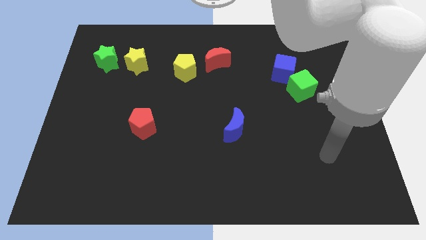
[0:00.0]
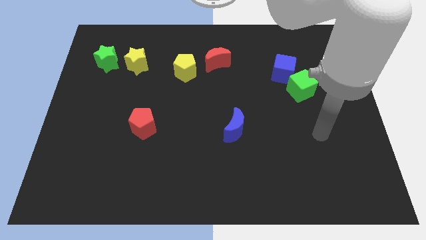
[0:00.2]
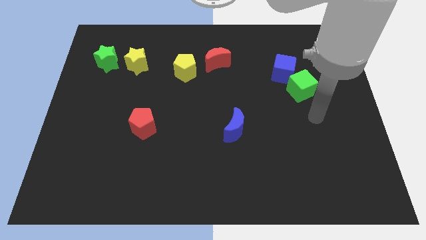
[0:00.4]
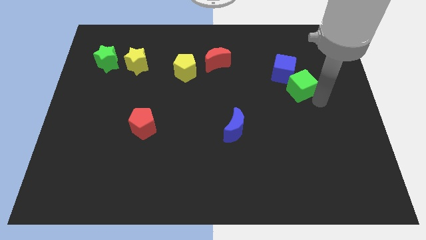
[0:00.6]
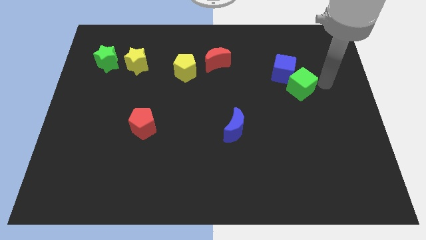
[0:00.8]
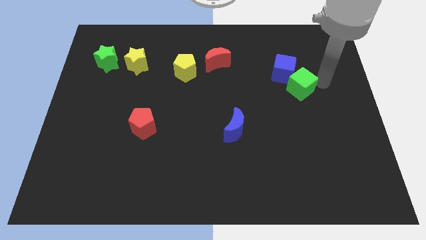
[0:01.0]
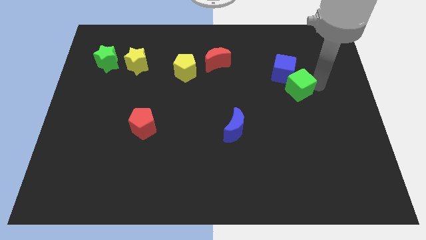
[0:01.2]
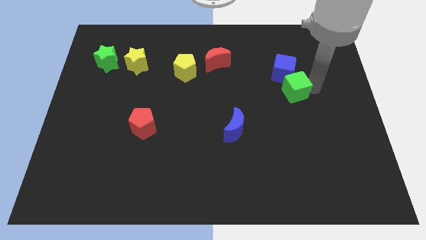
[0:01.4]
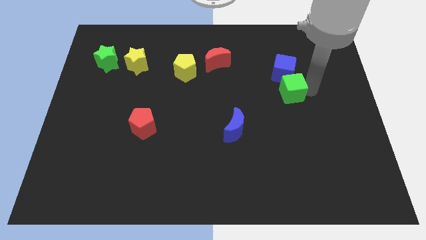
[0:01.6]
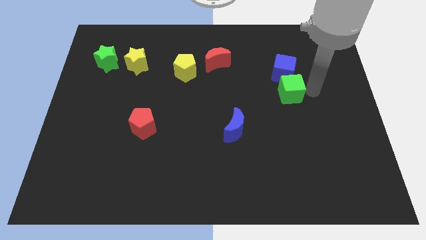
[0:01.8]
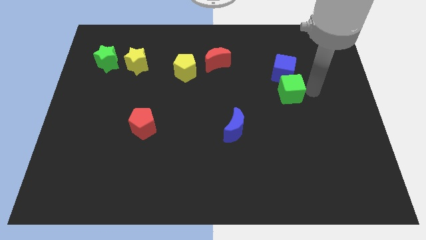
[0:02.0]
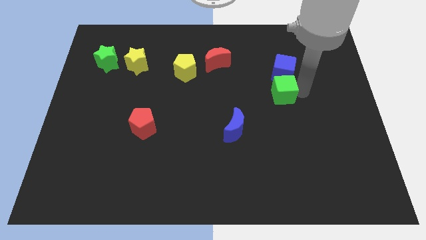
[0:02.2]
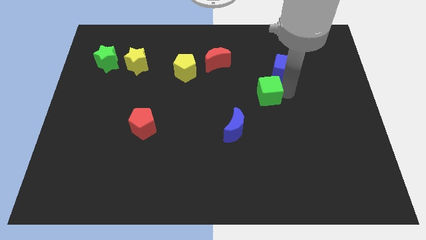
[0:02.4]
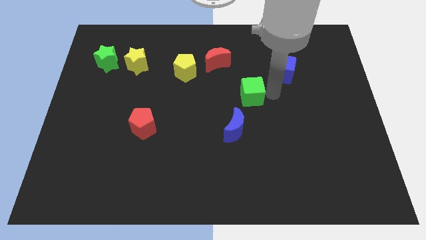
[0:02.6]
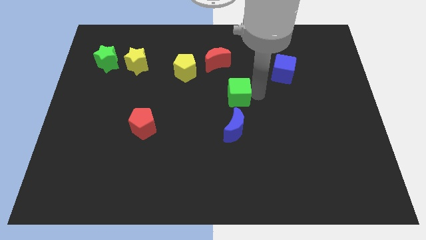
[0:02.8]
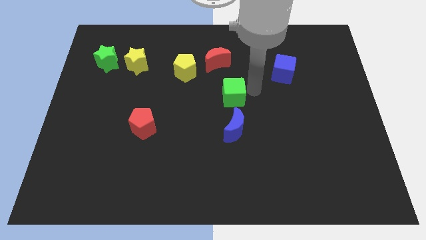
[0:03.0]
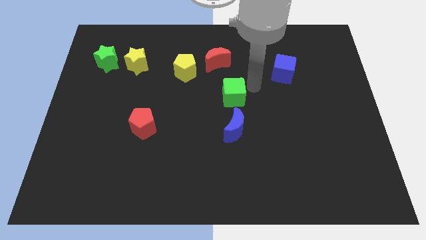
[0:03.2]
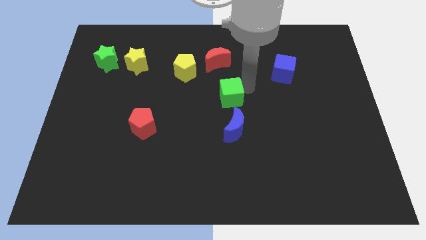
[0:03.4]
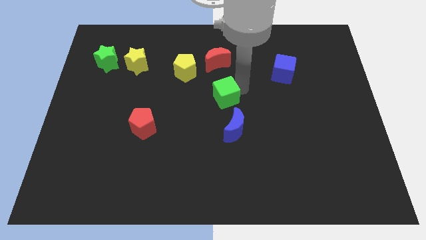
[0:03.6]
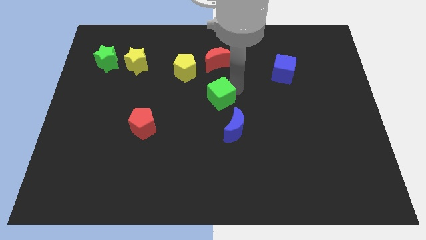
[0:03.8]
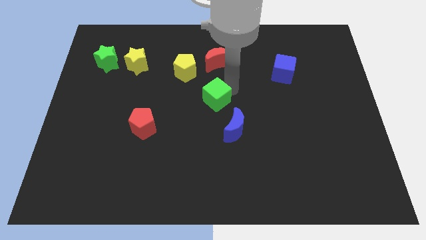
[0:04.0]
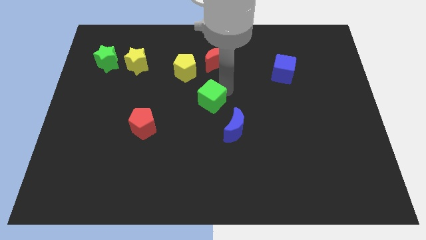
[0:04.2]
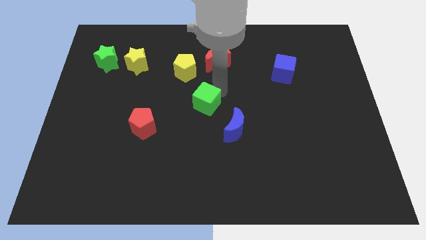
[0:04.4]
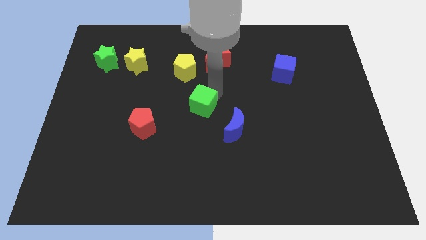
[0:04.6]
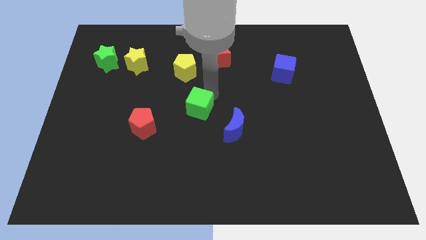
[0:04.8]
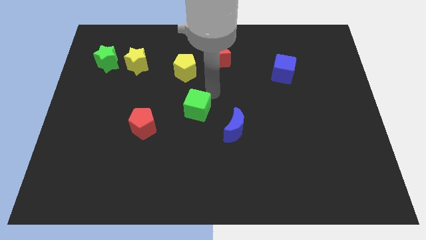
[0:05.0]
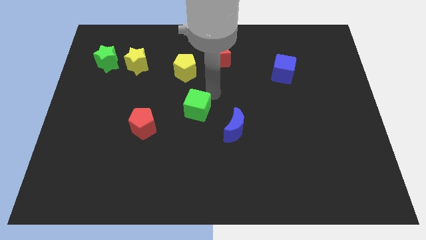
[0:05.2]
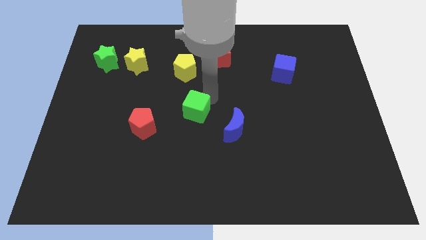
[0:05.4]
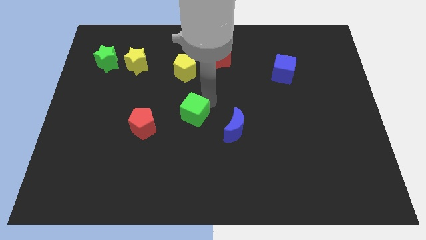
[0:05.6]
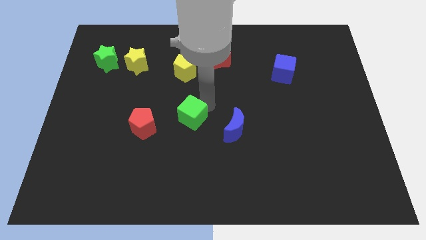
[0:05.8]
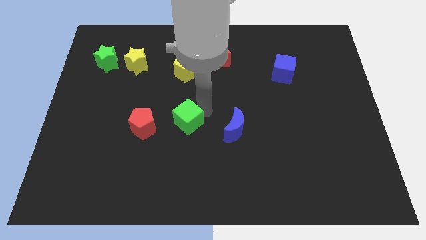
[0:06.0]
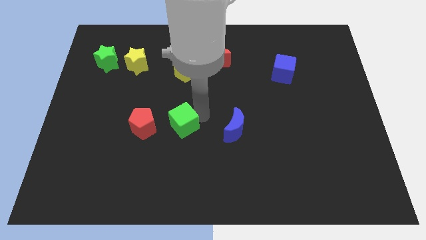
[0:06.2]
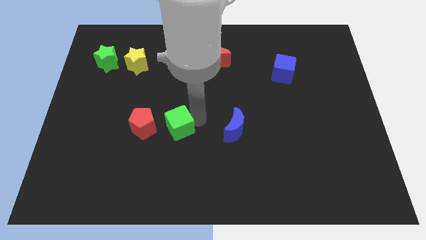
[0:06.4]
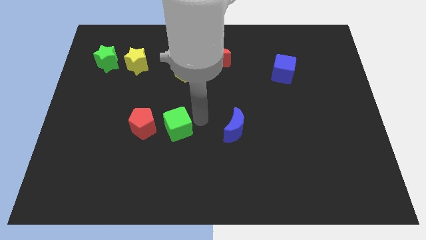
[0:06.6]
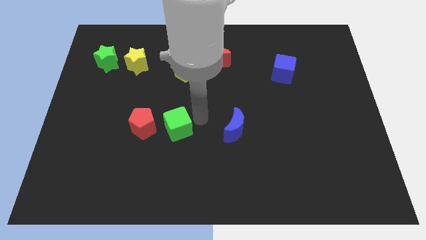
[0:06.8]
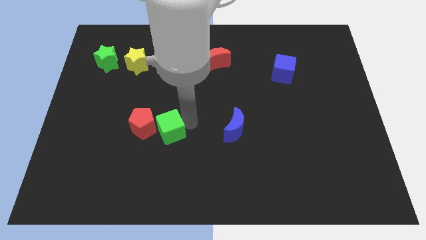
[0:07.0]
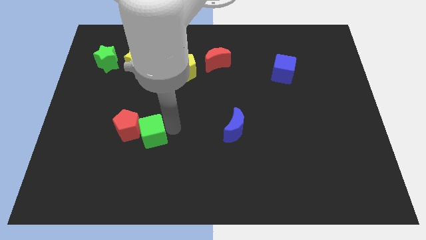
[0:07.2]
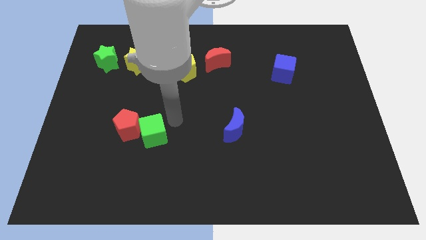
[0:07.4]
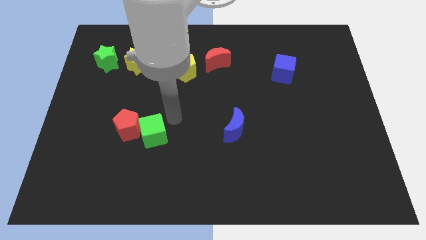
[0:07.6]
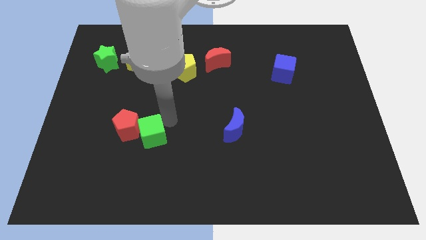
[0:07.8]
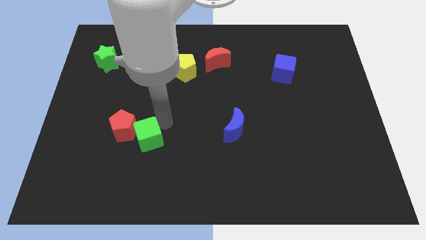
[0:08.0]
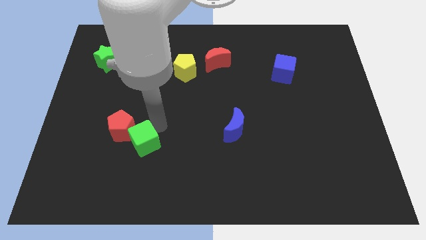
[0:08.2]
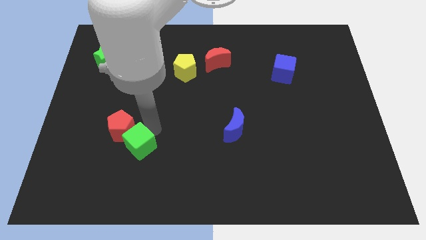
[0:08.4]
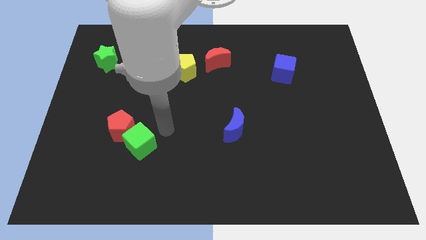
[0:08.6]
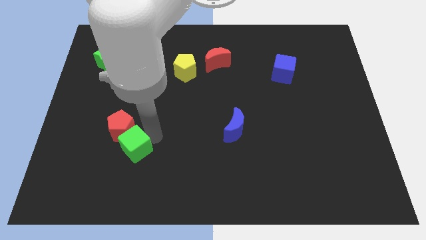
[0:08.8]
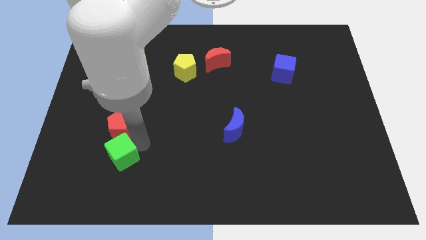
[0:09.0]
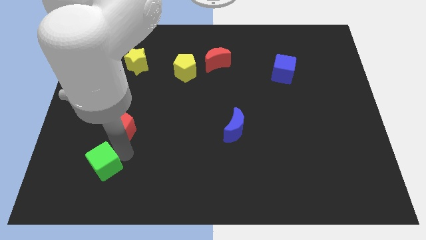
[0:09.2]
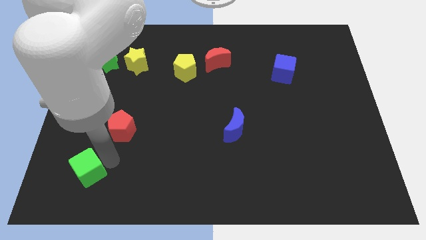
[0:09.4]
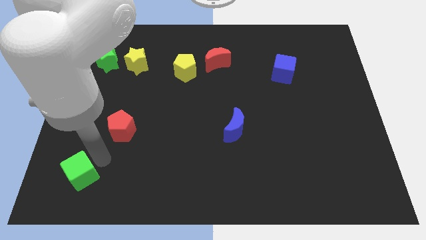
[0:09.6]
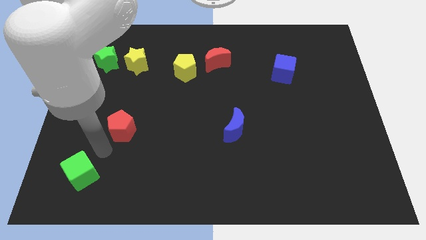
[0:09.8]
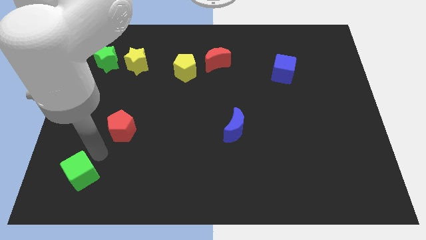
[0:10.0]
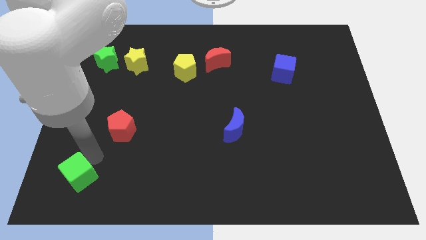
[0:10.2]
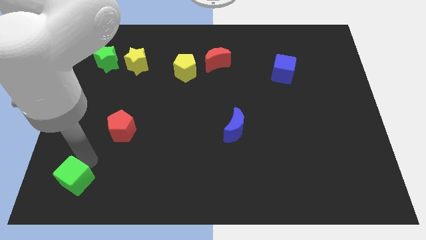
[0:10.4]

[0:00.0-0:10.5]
move the green cube to the bottom left corner

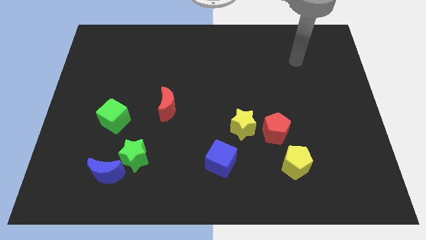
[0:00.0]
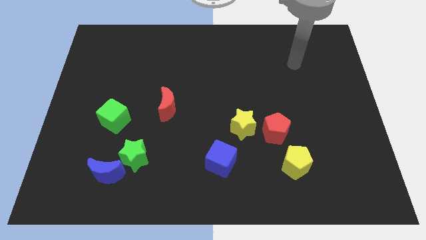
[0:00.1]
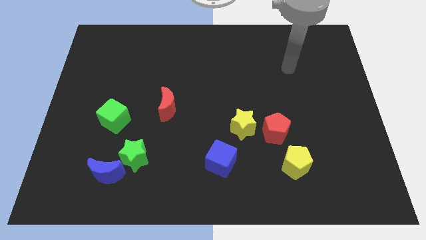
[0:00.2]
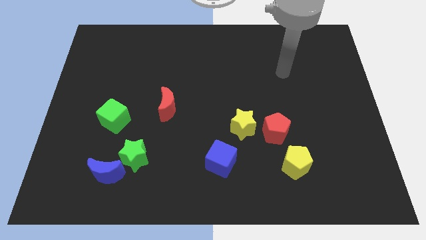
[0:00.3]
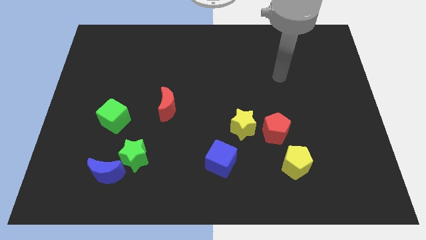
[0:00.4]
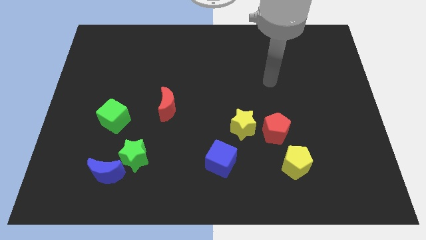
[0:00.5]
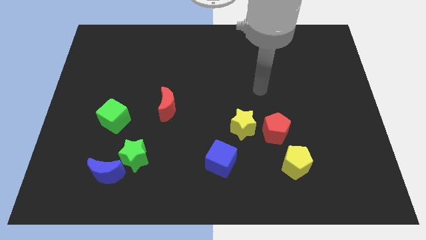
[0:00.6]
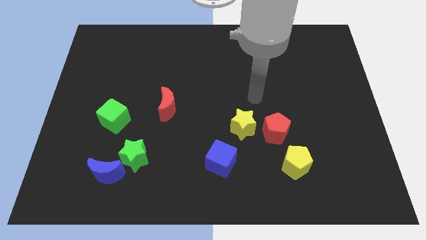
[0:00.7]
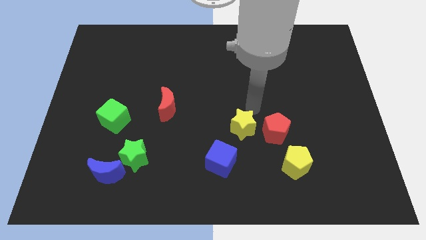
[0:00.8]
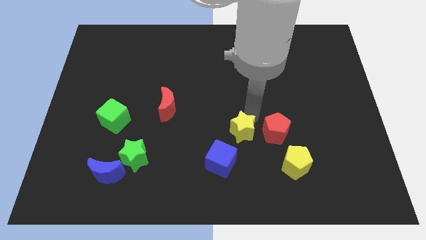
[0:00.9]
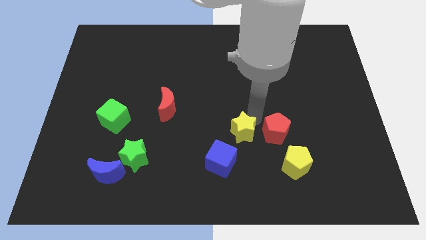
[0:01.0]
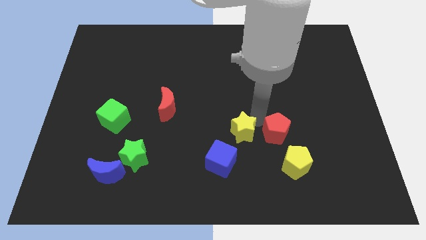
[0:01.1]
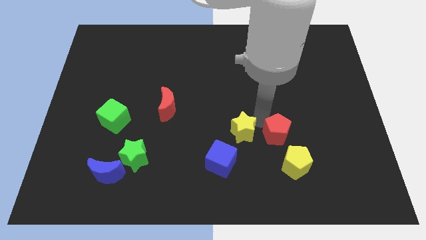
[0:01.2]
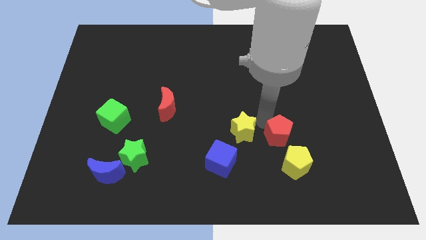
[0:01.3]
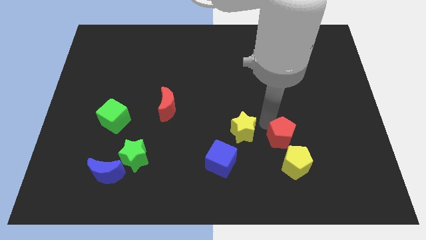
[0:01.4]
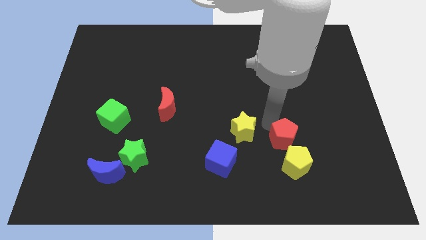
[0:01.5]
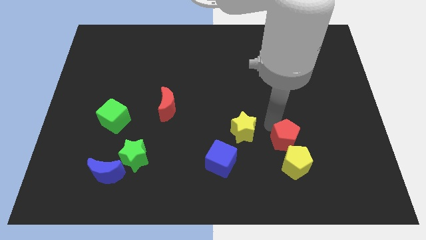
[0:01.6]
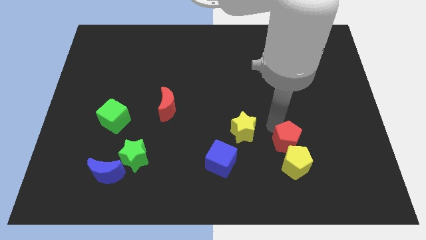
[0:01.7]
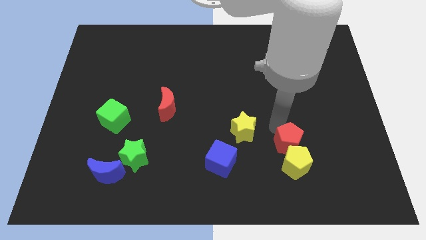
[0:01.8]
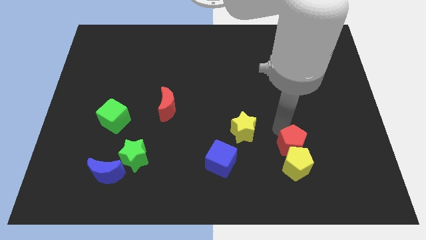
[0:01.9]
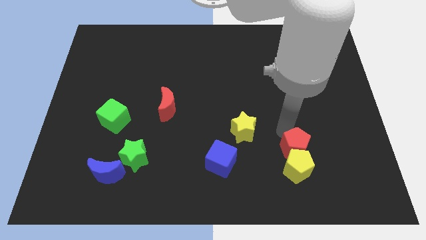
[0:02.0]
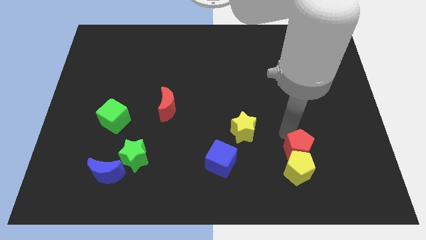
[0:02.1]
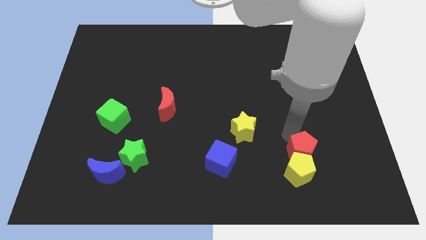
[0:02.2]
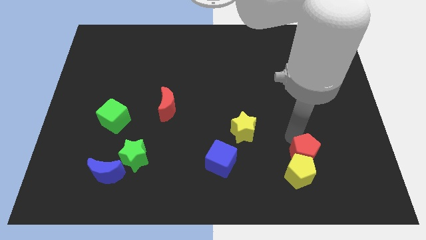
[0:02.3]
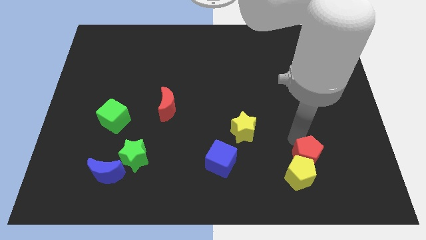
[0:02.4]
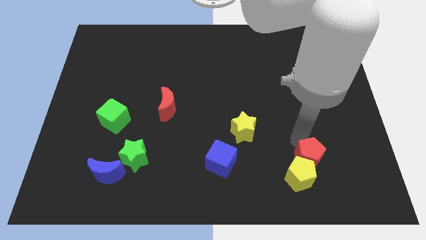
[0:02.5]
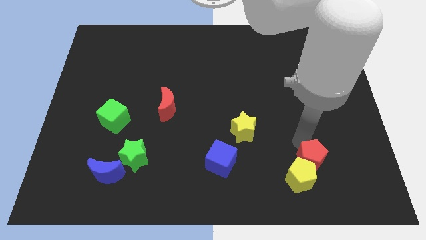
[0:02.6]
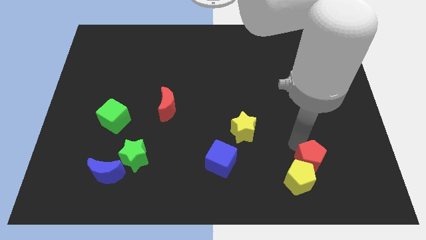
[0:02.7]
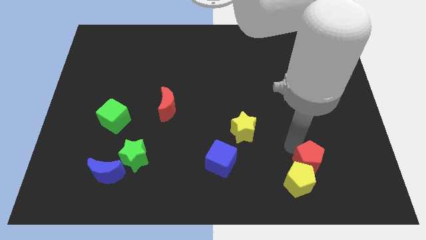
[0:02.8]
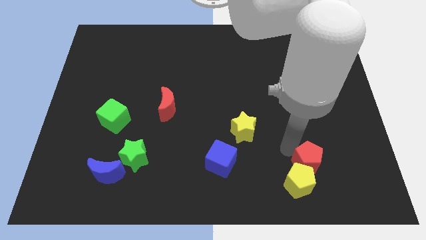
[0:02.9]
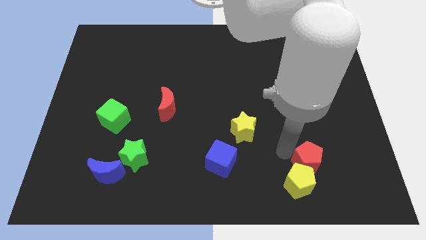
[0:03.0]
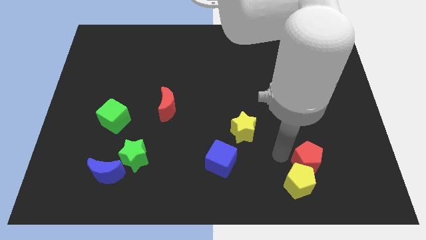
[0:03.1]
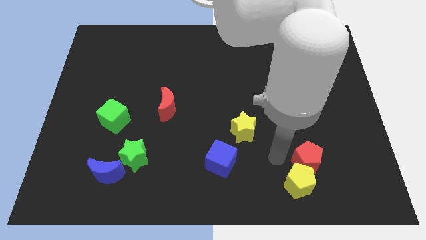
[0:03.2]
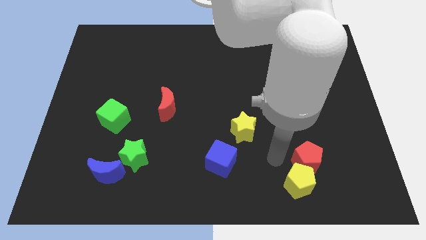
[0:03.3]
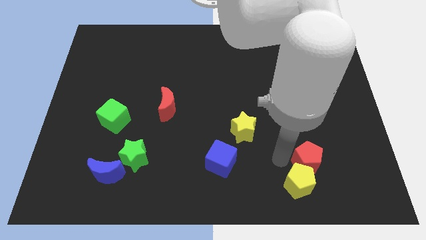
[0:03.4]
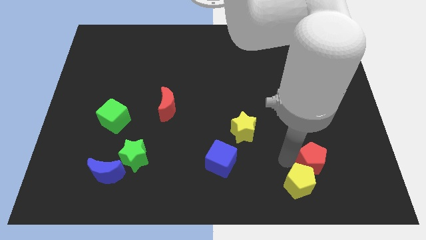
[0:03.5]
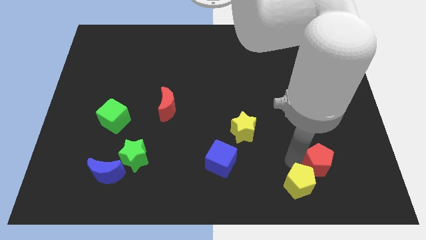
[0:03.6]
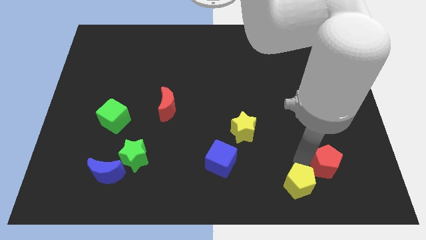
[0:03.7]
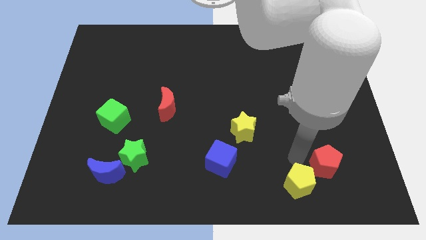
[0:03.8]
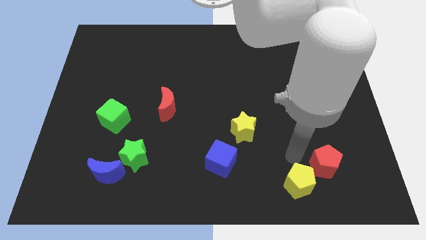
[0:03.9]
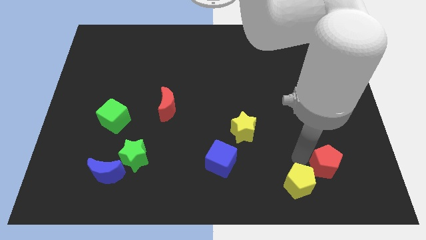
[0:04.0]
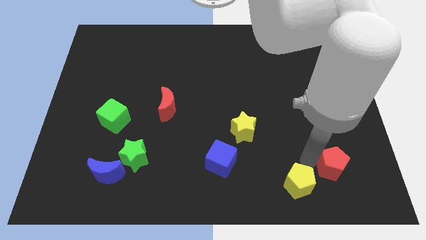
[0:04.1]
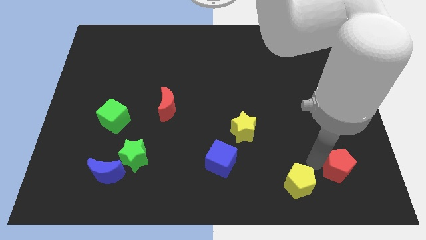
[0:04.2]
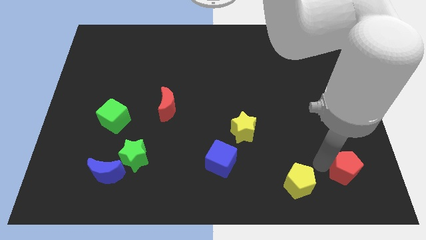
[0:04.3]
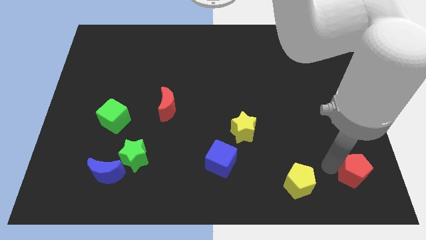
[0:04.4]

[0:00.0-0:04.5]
put the red pentagon to the bottom right of the board
